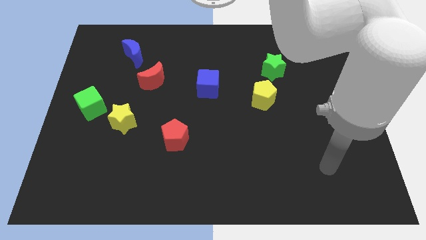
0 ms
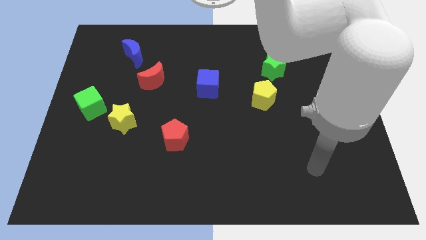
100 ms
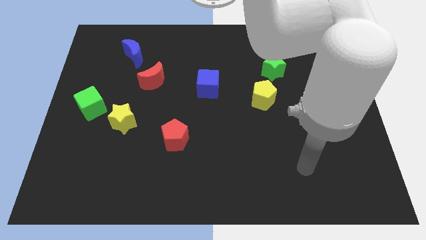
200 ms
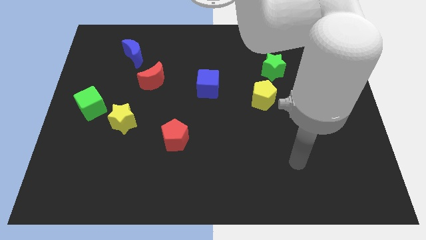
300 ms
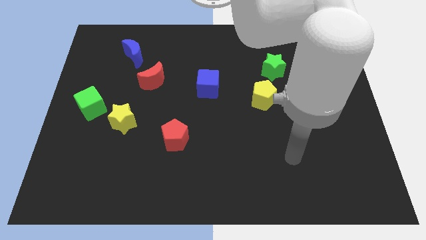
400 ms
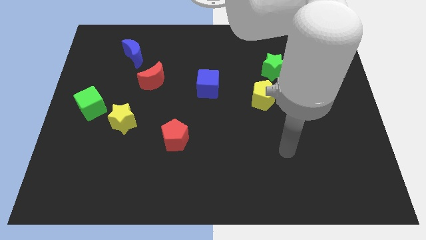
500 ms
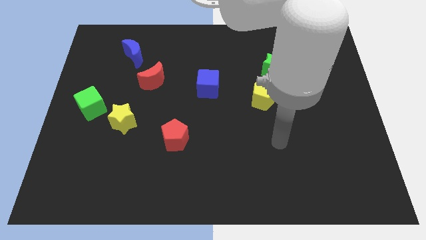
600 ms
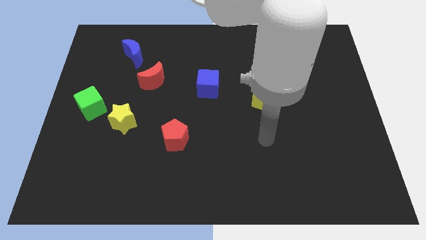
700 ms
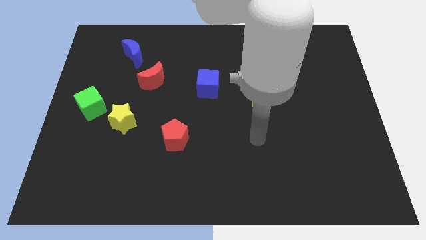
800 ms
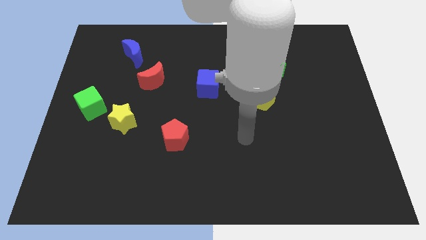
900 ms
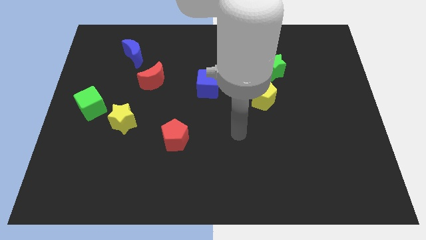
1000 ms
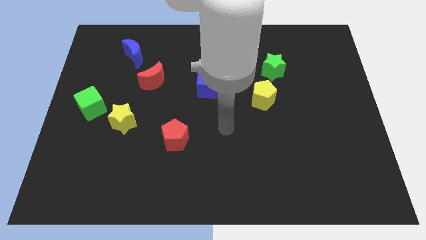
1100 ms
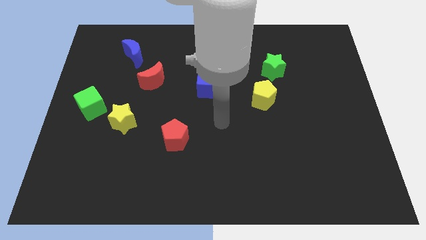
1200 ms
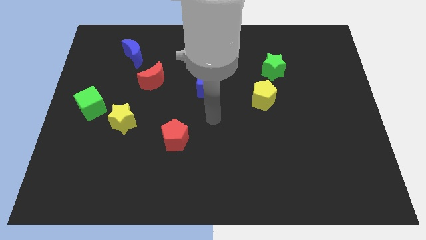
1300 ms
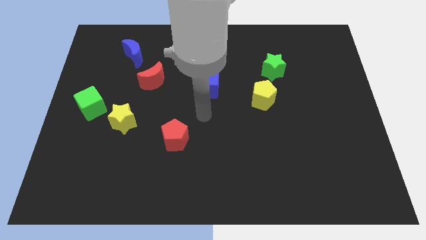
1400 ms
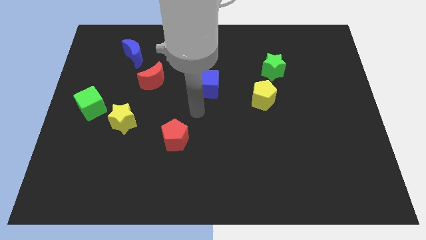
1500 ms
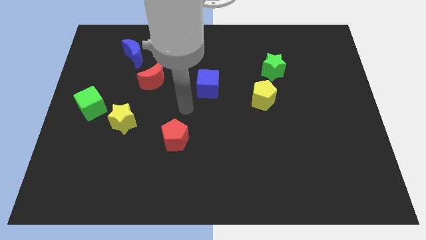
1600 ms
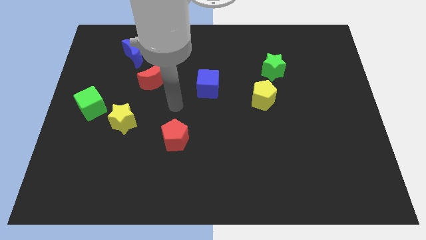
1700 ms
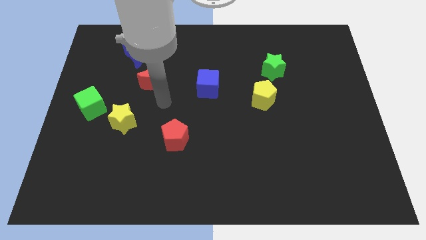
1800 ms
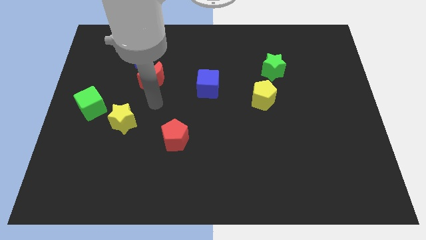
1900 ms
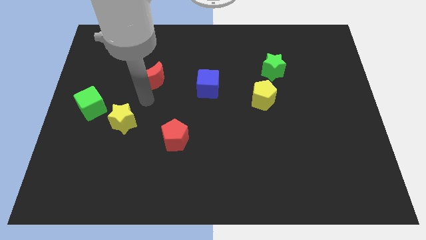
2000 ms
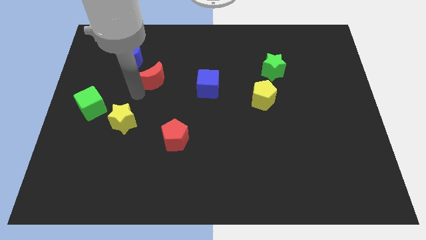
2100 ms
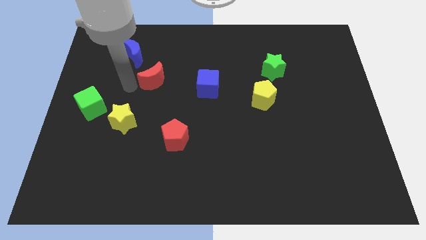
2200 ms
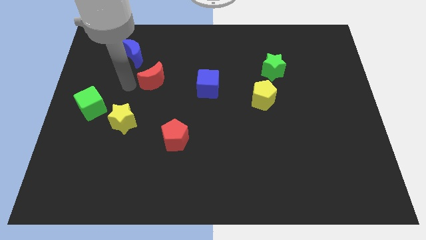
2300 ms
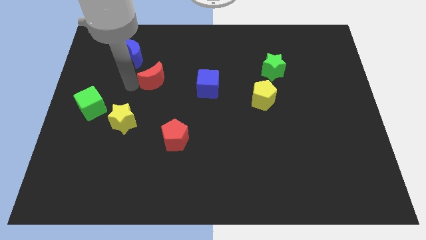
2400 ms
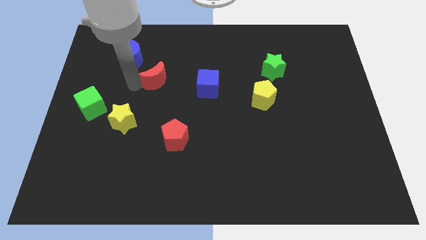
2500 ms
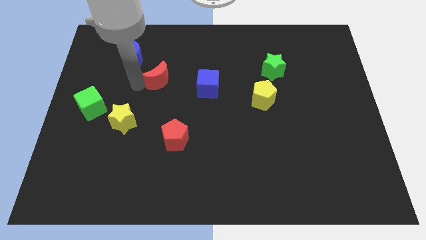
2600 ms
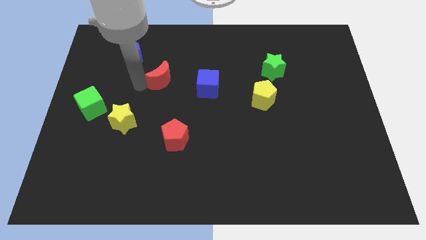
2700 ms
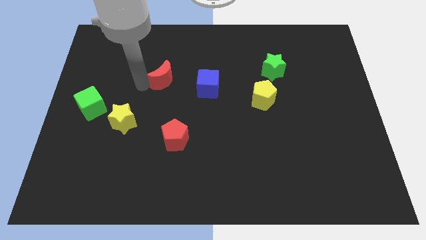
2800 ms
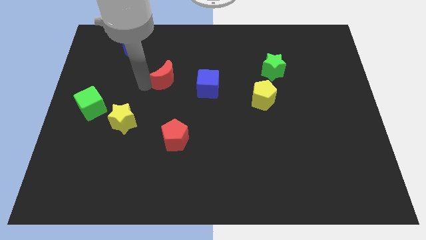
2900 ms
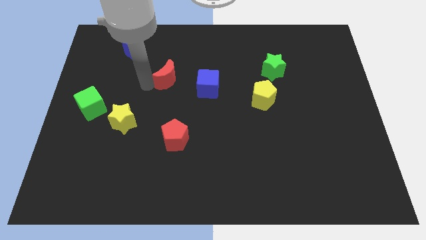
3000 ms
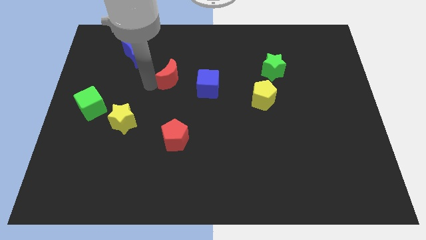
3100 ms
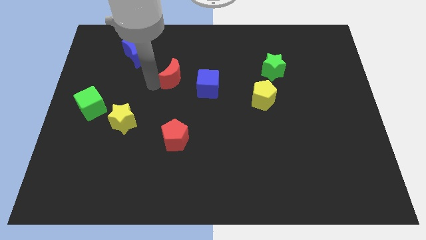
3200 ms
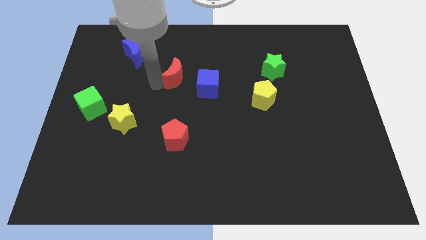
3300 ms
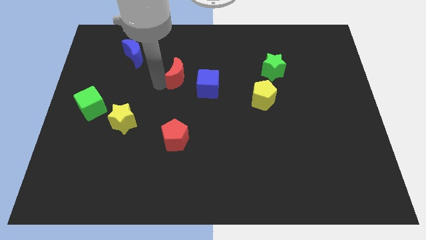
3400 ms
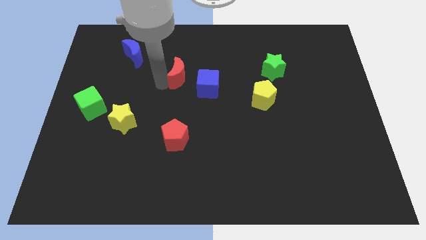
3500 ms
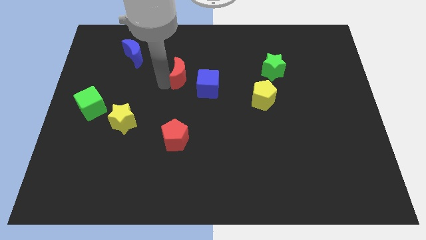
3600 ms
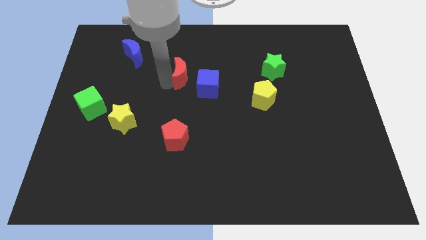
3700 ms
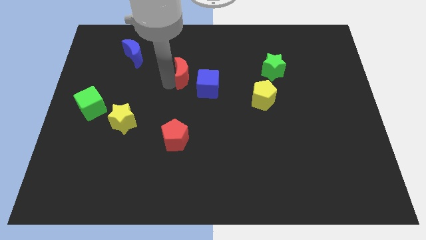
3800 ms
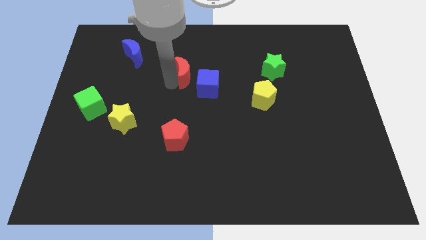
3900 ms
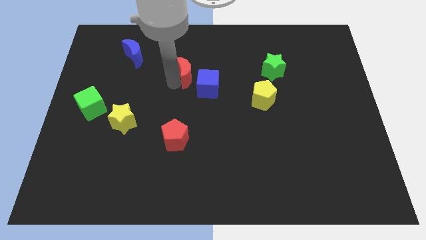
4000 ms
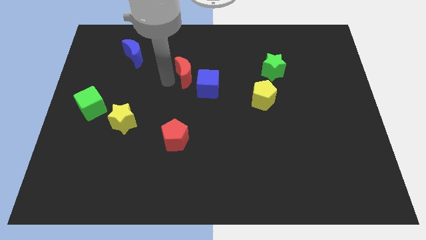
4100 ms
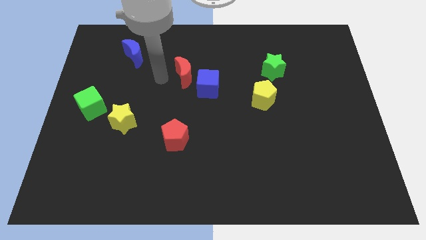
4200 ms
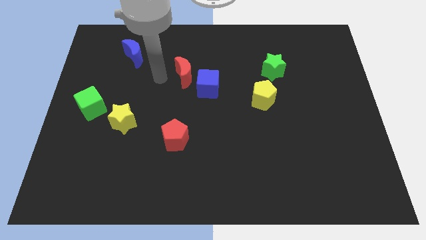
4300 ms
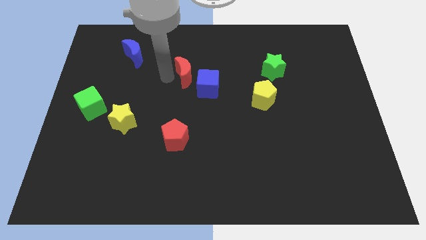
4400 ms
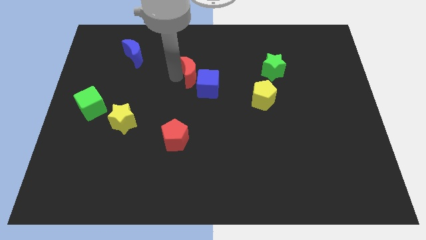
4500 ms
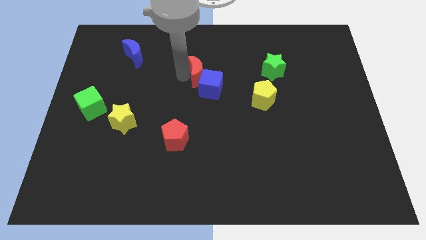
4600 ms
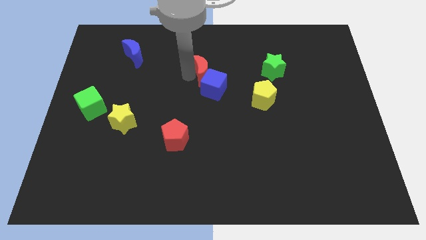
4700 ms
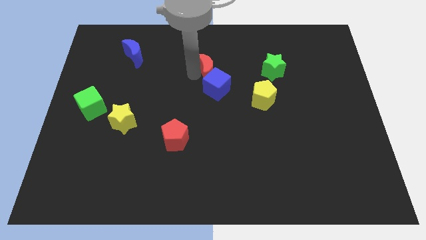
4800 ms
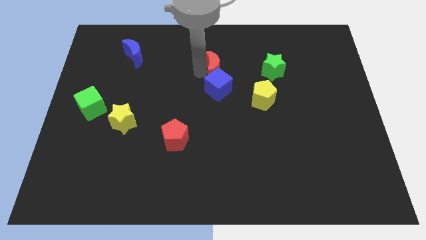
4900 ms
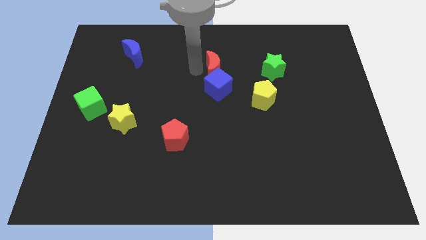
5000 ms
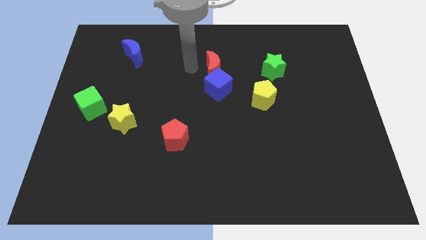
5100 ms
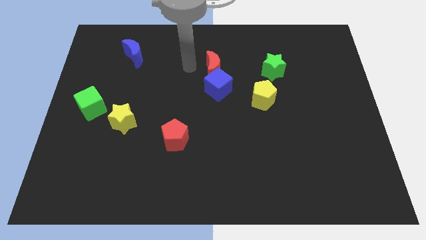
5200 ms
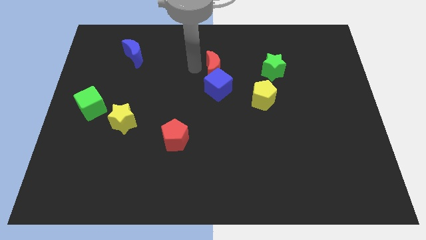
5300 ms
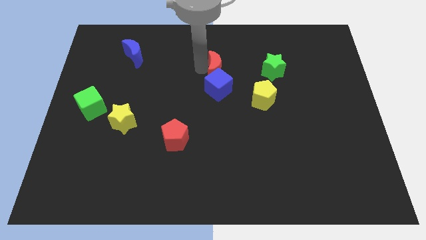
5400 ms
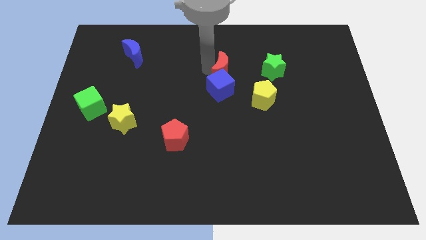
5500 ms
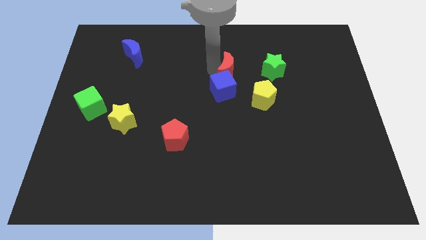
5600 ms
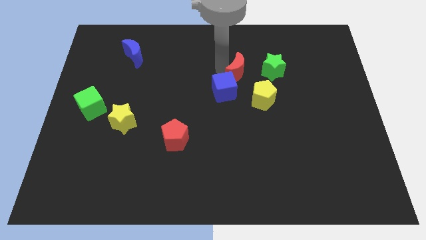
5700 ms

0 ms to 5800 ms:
push the red moon right

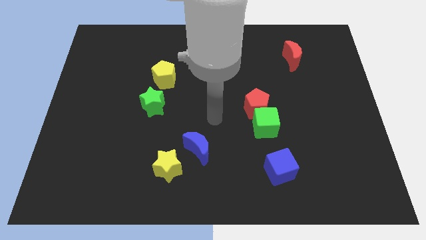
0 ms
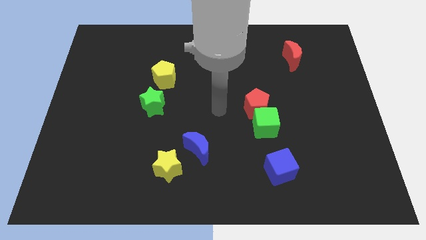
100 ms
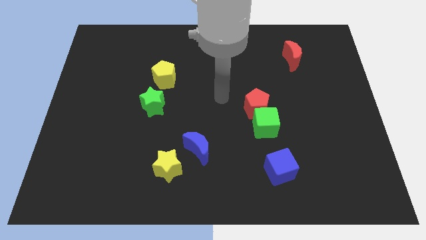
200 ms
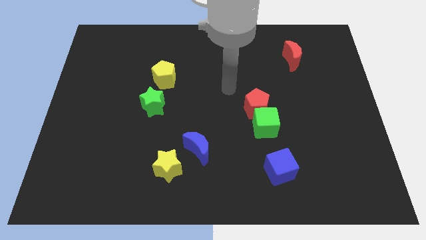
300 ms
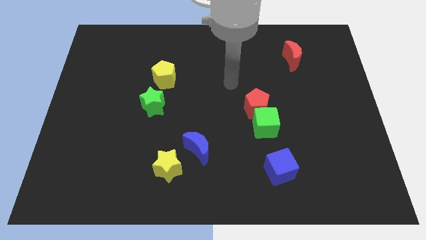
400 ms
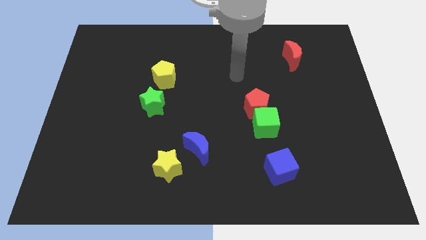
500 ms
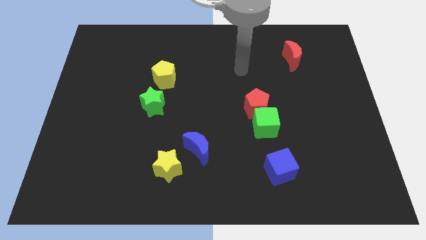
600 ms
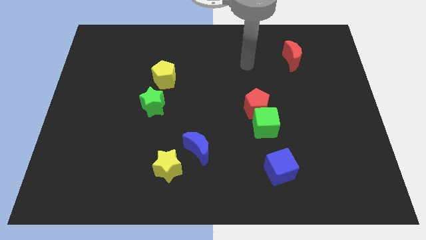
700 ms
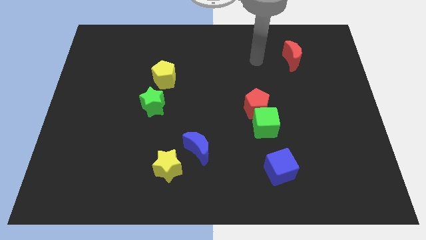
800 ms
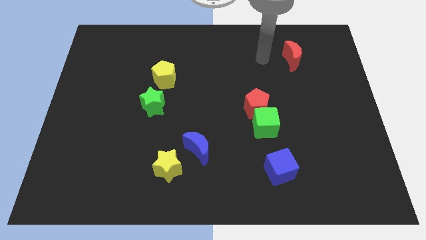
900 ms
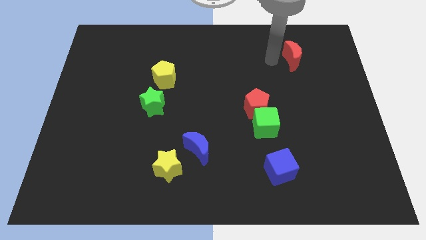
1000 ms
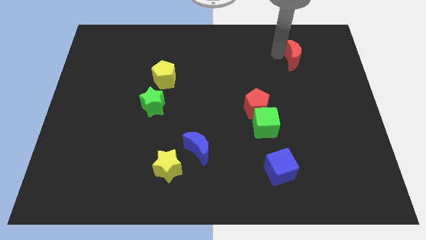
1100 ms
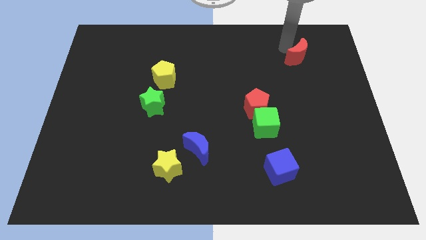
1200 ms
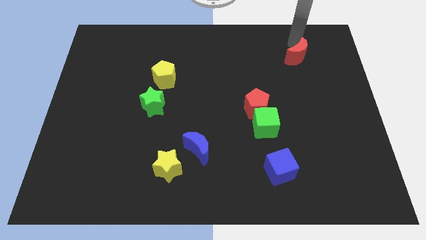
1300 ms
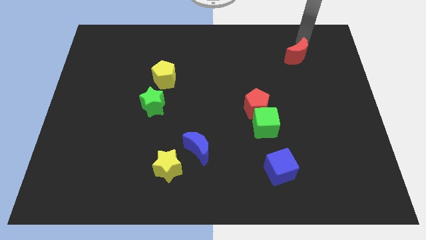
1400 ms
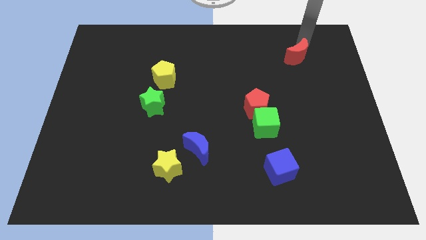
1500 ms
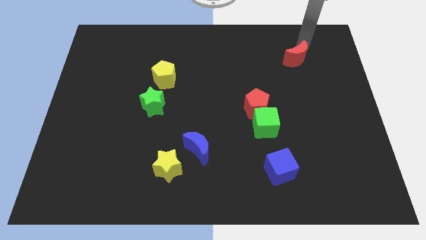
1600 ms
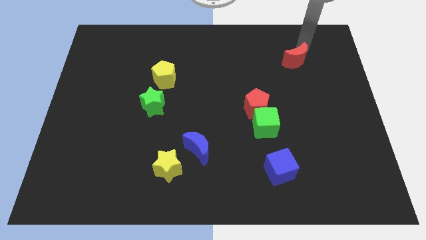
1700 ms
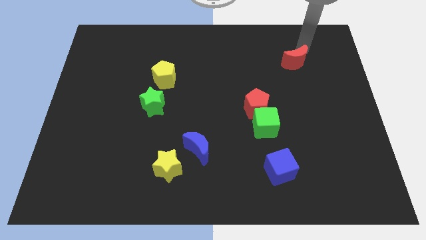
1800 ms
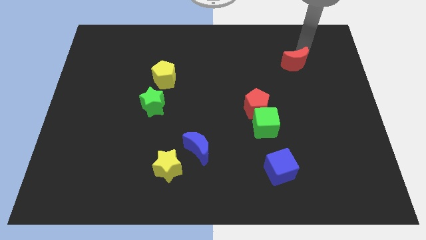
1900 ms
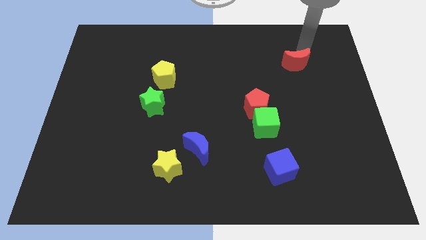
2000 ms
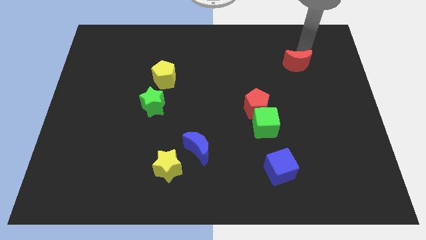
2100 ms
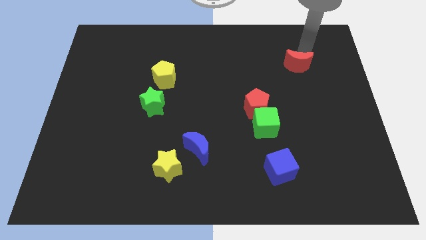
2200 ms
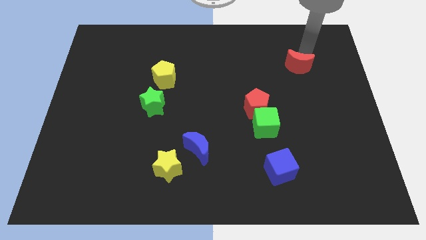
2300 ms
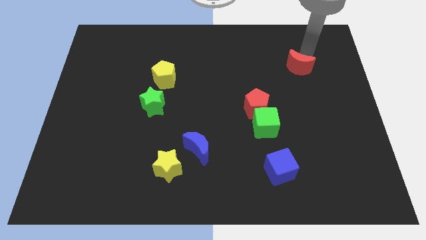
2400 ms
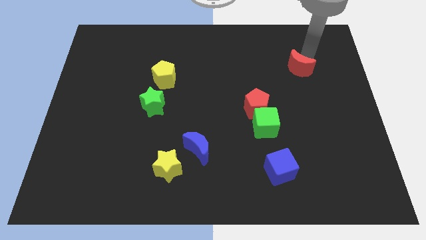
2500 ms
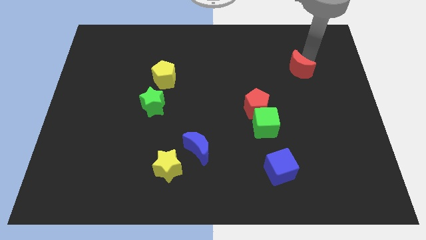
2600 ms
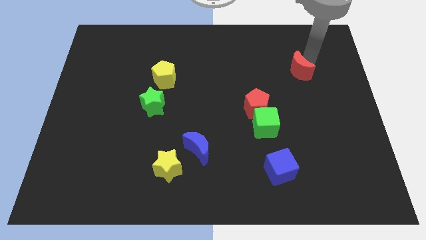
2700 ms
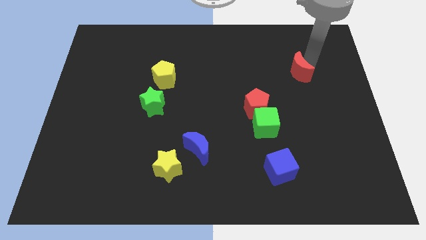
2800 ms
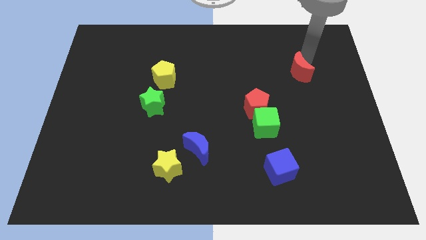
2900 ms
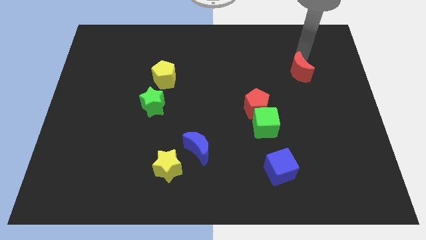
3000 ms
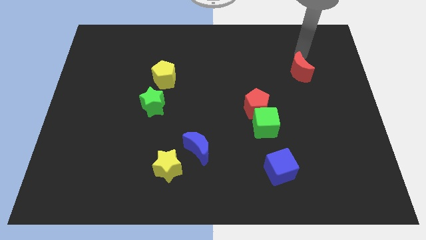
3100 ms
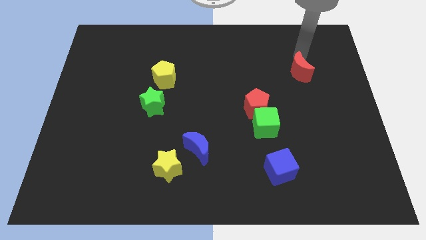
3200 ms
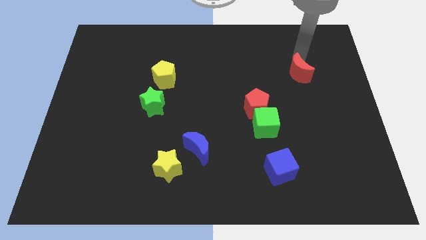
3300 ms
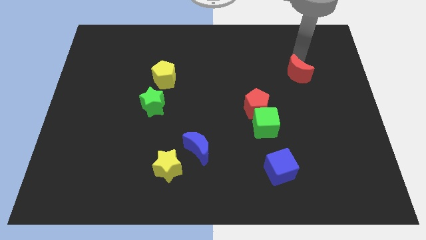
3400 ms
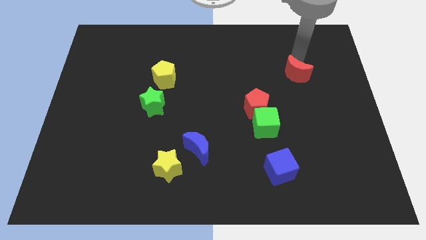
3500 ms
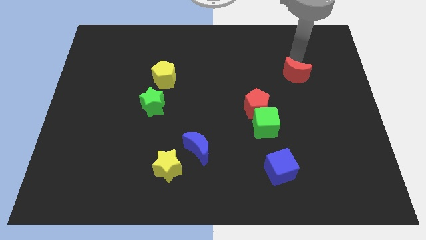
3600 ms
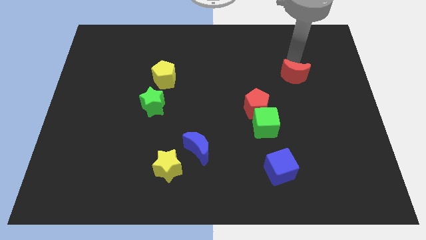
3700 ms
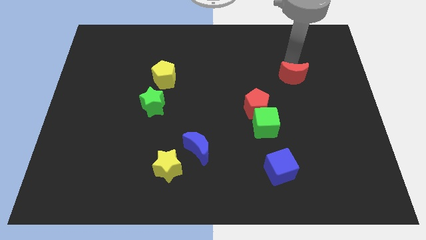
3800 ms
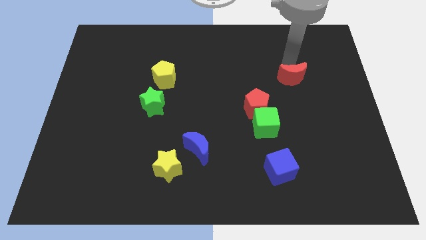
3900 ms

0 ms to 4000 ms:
move the red moon somewhat downwards
